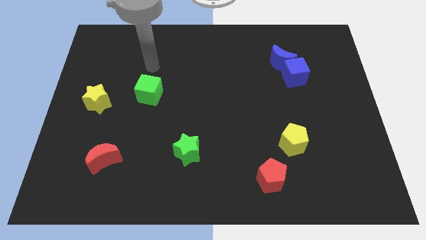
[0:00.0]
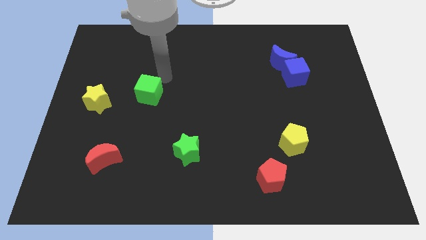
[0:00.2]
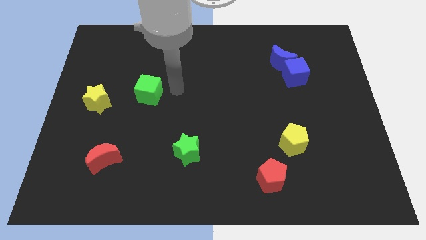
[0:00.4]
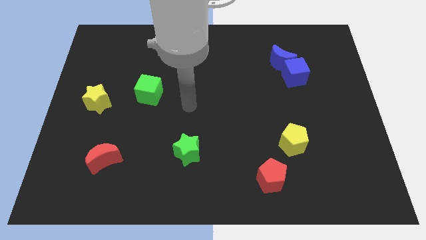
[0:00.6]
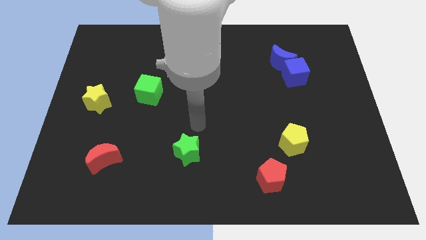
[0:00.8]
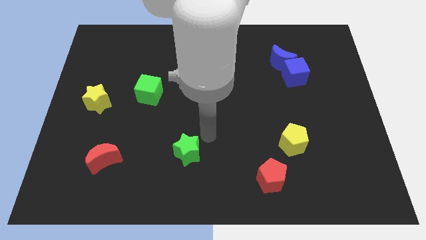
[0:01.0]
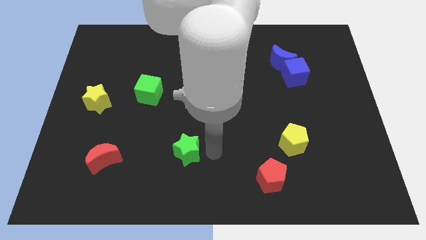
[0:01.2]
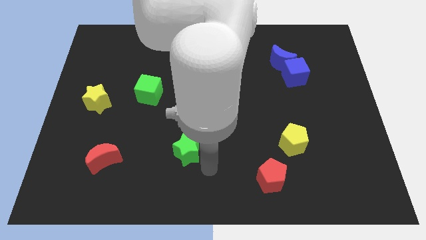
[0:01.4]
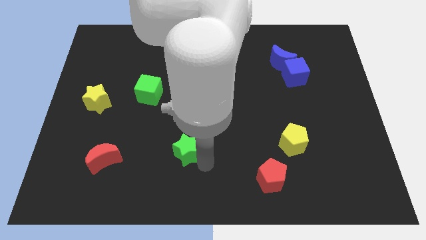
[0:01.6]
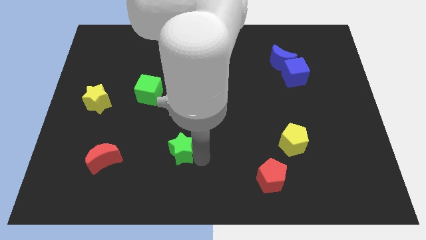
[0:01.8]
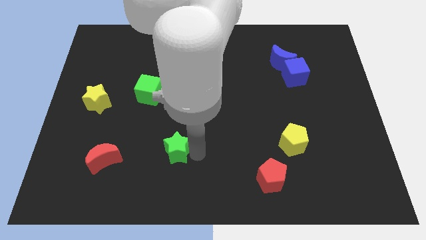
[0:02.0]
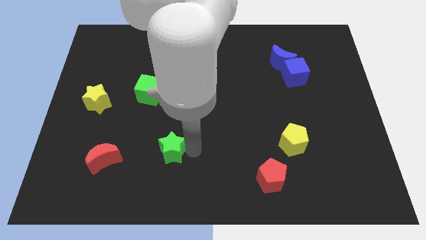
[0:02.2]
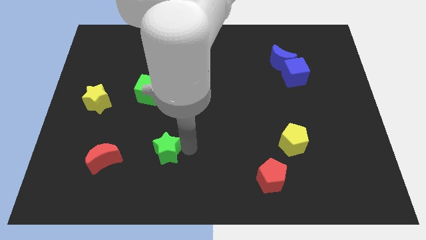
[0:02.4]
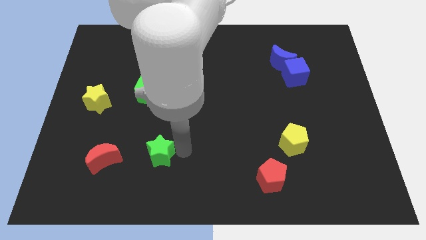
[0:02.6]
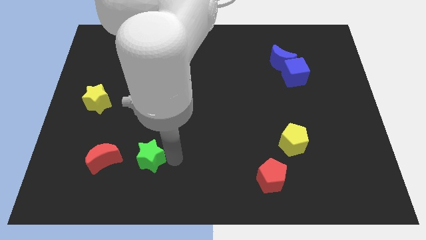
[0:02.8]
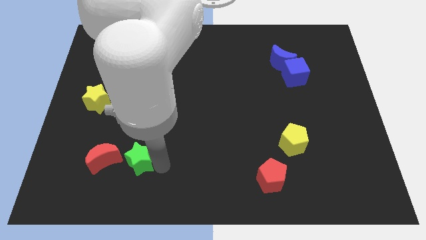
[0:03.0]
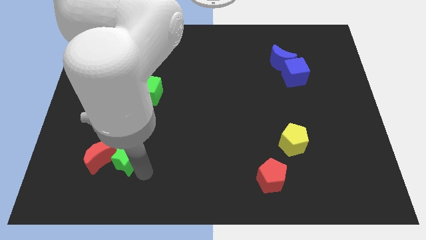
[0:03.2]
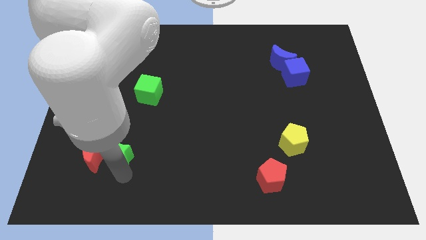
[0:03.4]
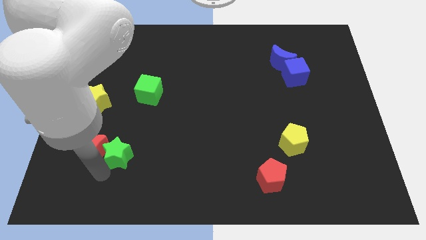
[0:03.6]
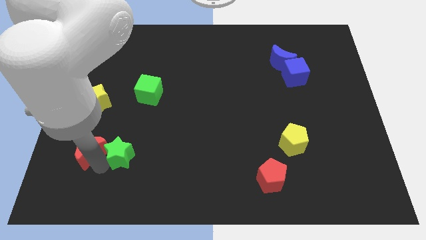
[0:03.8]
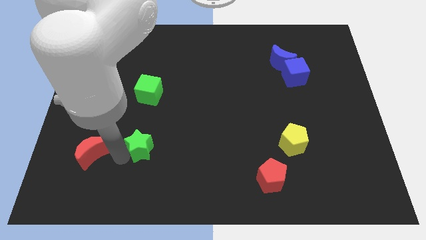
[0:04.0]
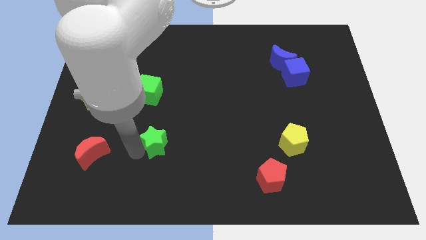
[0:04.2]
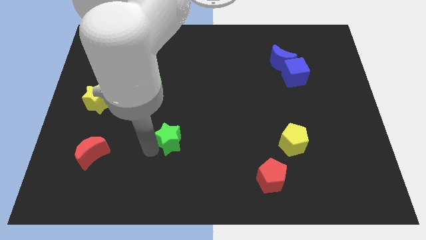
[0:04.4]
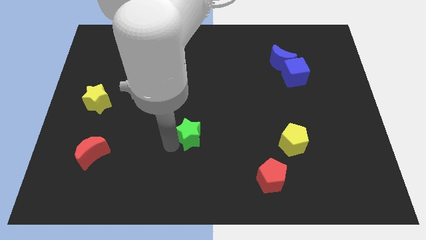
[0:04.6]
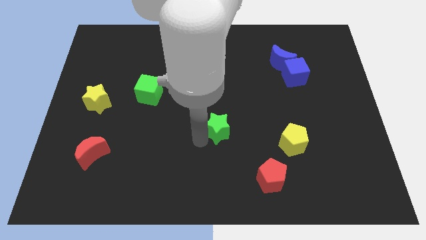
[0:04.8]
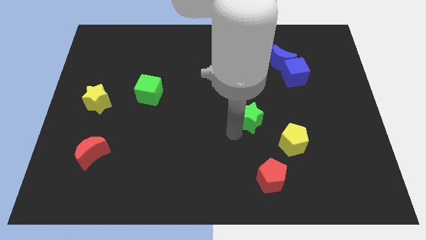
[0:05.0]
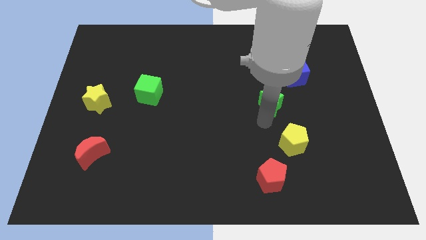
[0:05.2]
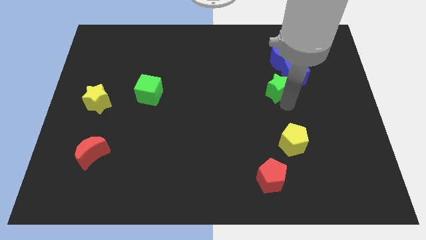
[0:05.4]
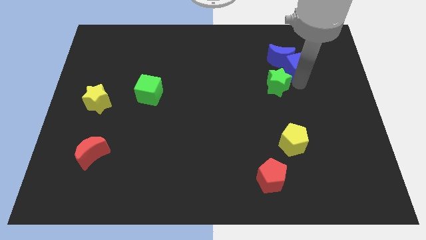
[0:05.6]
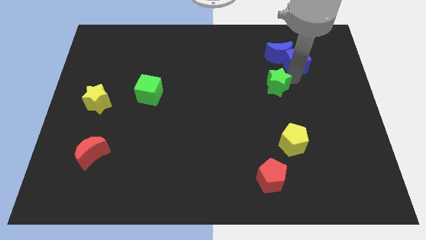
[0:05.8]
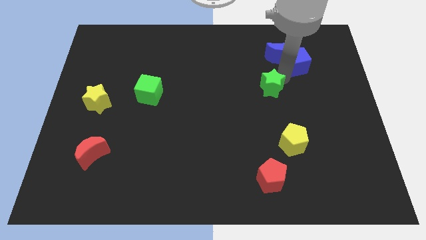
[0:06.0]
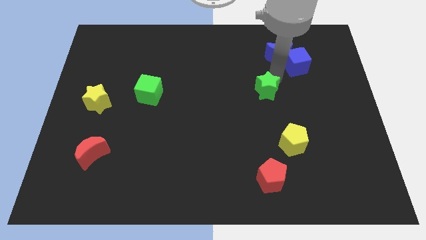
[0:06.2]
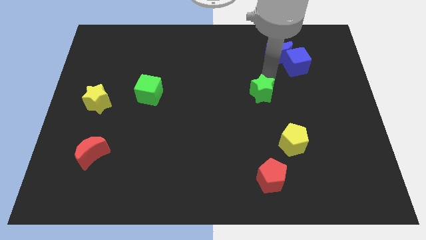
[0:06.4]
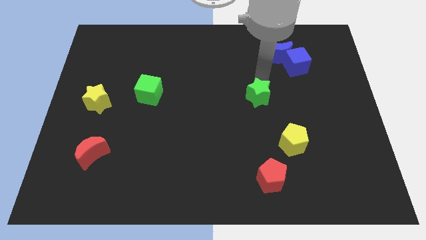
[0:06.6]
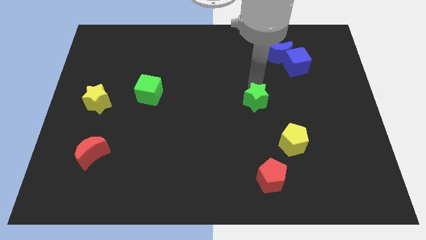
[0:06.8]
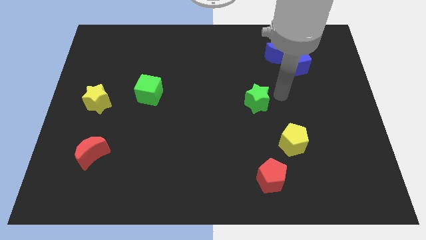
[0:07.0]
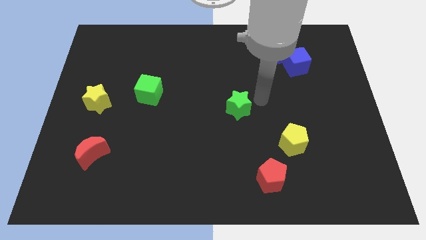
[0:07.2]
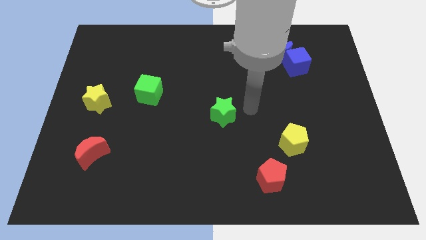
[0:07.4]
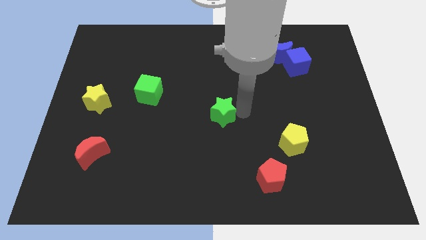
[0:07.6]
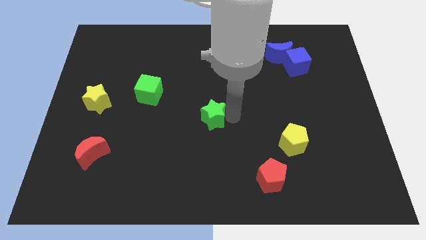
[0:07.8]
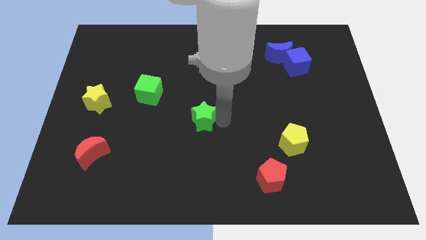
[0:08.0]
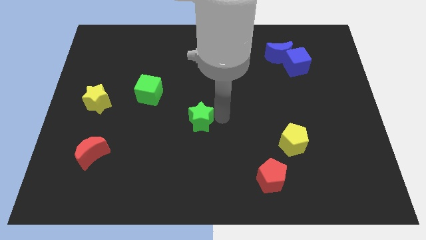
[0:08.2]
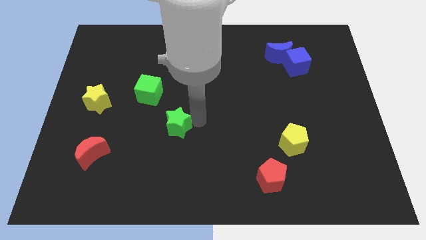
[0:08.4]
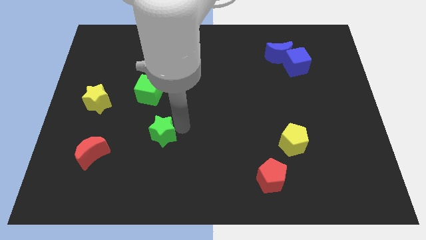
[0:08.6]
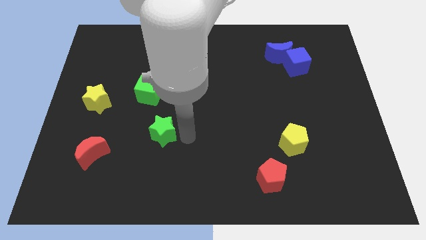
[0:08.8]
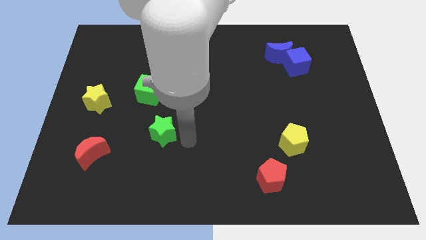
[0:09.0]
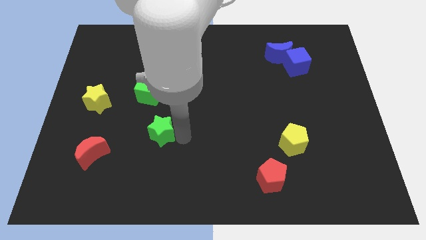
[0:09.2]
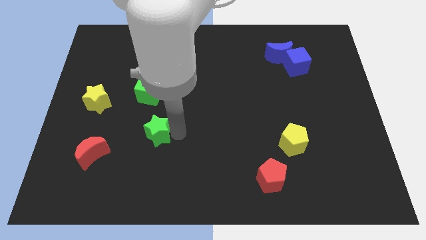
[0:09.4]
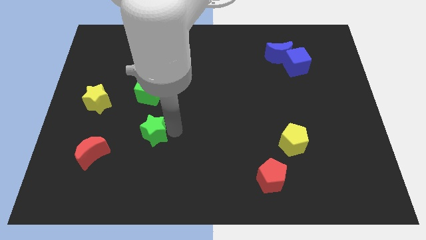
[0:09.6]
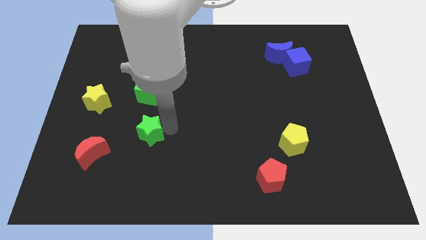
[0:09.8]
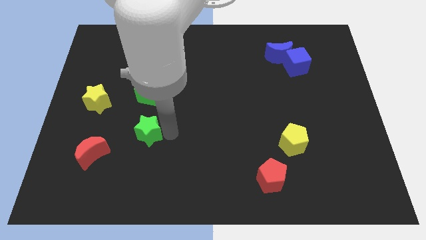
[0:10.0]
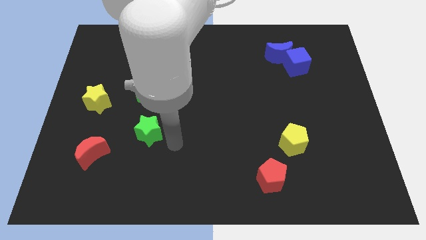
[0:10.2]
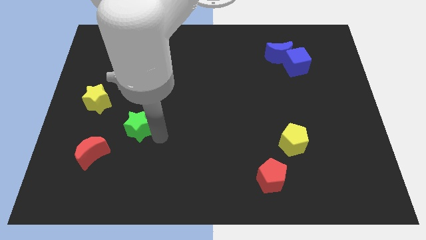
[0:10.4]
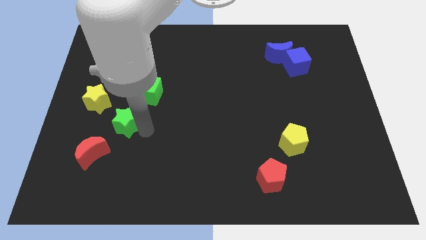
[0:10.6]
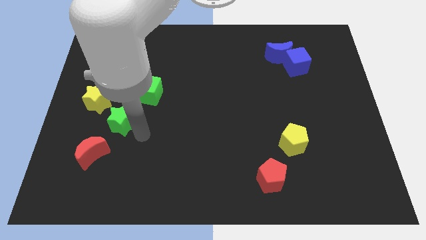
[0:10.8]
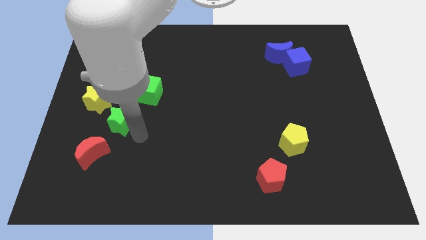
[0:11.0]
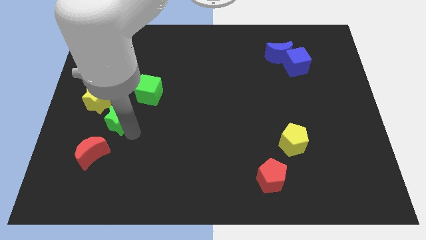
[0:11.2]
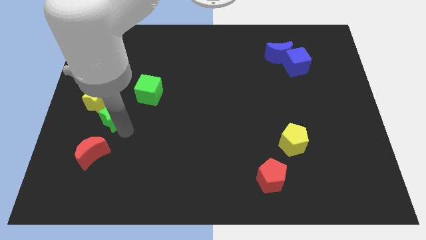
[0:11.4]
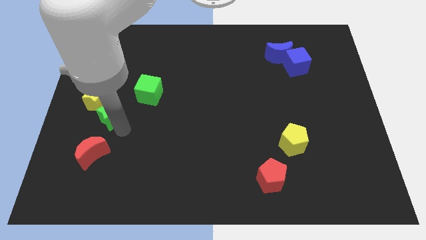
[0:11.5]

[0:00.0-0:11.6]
put the green star close to the yellow star
